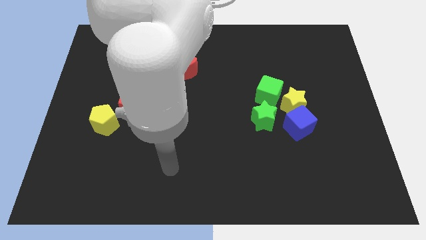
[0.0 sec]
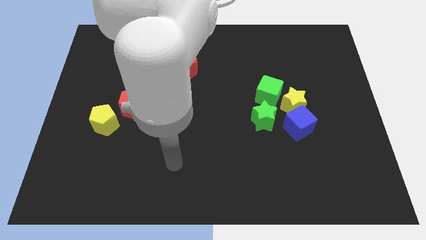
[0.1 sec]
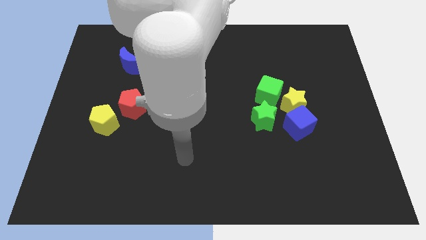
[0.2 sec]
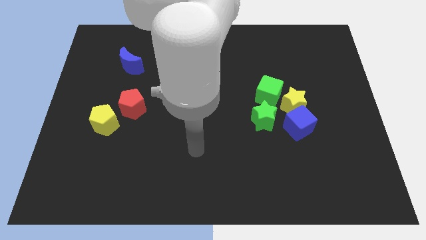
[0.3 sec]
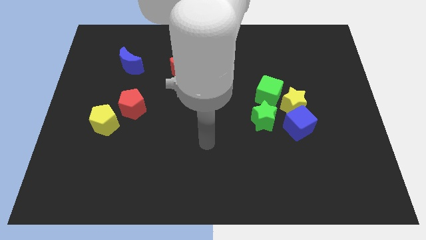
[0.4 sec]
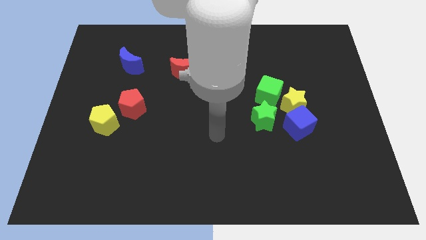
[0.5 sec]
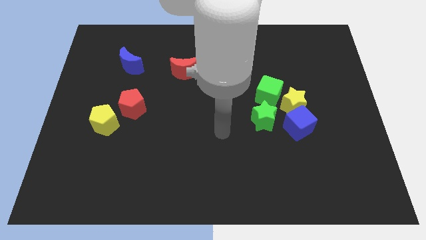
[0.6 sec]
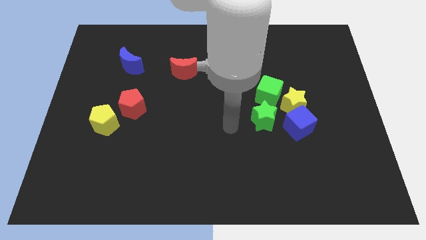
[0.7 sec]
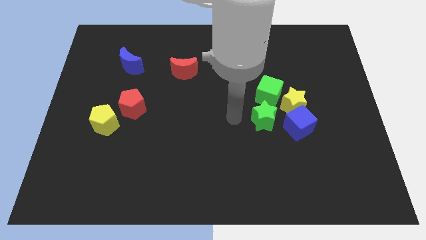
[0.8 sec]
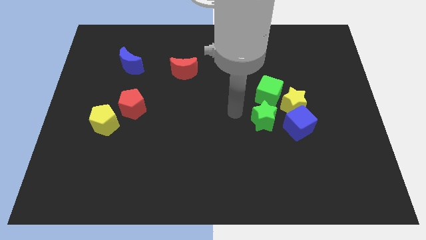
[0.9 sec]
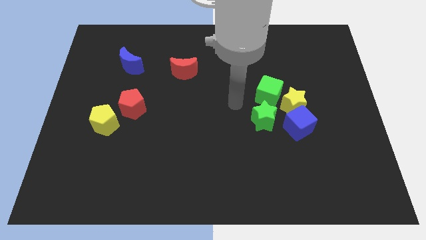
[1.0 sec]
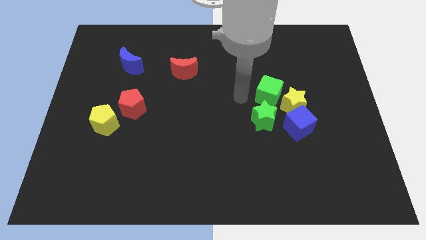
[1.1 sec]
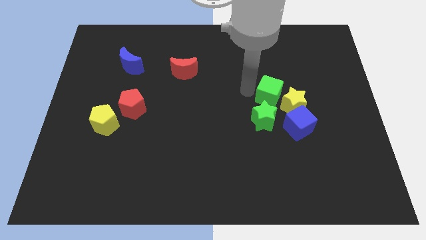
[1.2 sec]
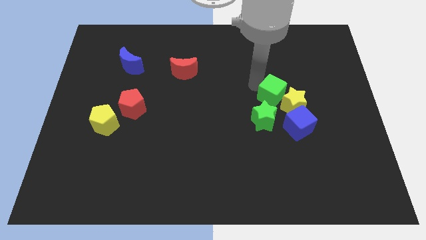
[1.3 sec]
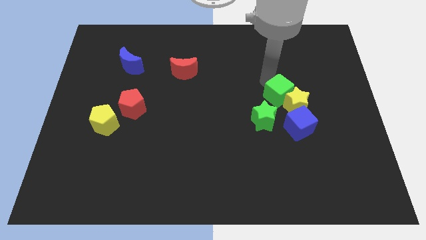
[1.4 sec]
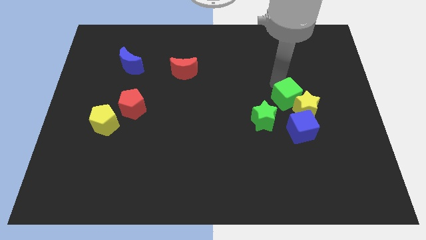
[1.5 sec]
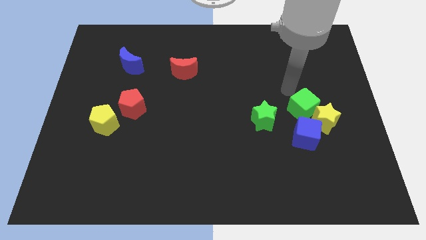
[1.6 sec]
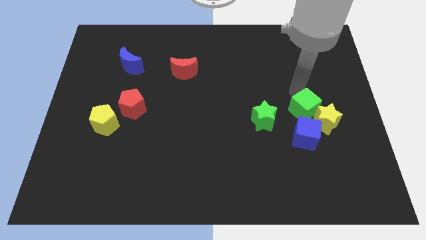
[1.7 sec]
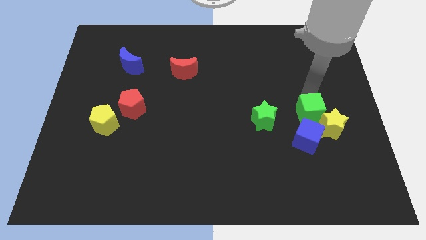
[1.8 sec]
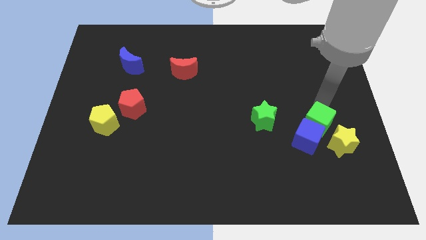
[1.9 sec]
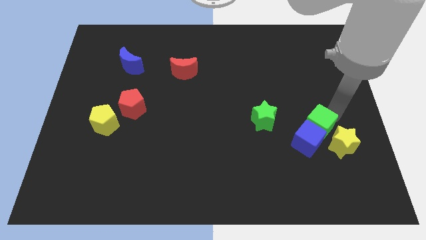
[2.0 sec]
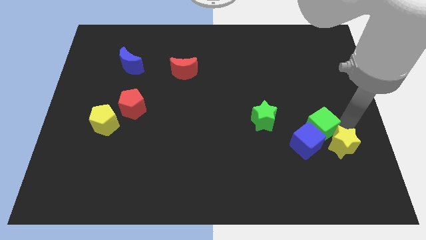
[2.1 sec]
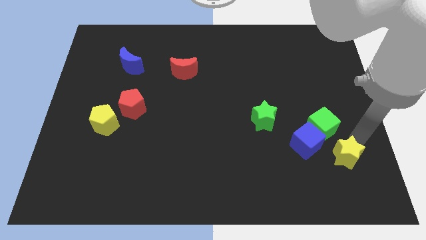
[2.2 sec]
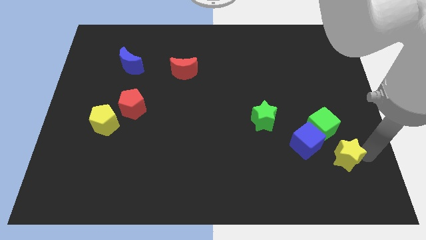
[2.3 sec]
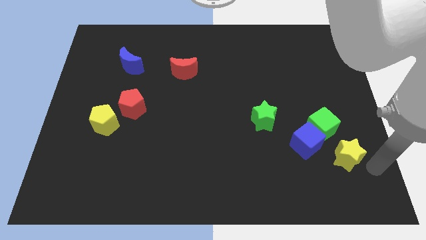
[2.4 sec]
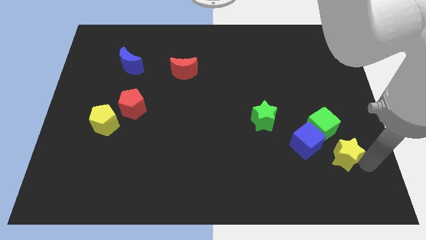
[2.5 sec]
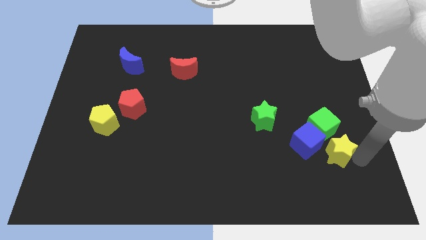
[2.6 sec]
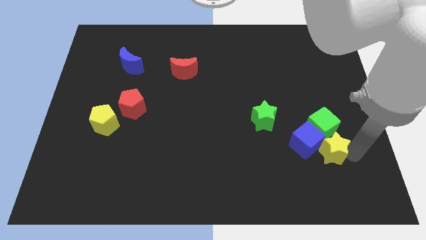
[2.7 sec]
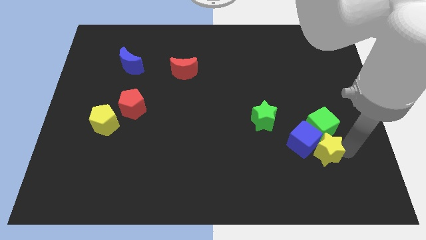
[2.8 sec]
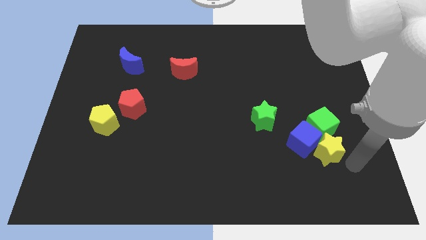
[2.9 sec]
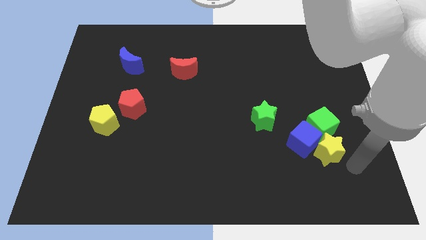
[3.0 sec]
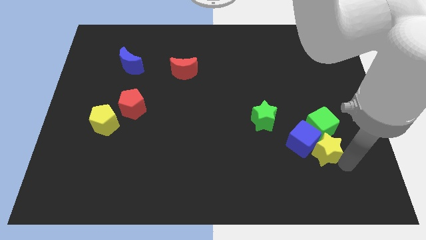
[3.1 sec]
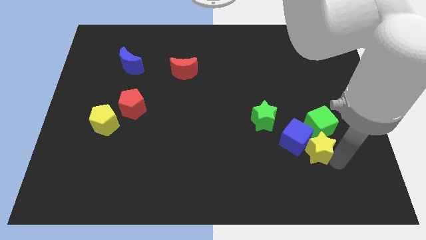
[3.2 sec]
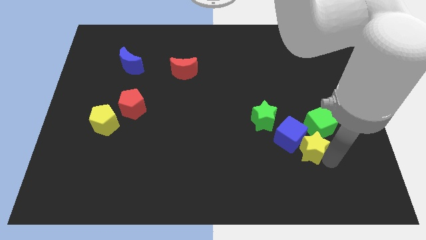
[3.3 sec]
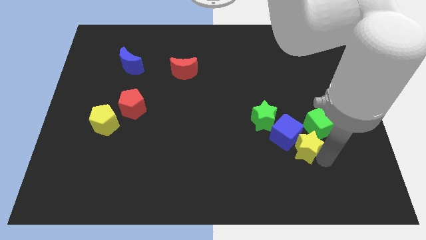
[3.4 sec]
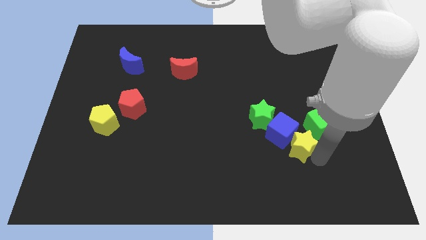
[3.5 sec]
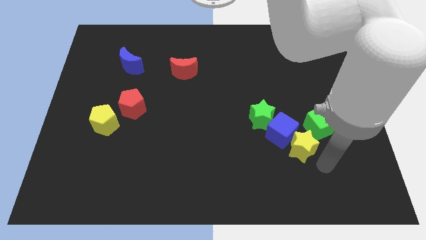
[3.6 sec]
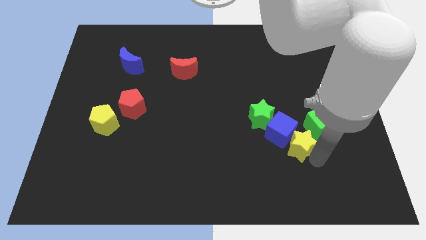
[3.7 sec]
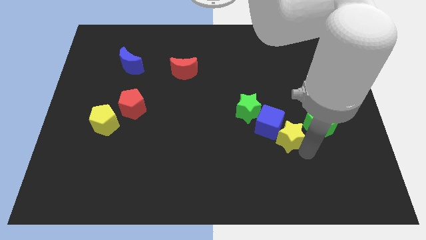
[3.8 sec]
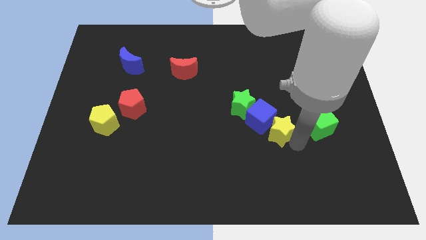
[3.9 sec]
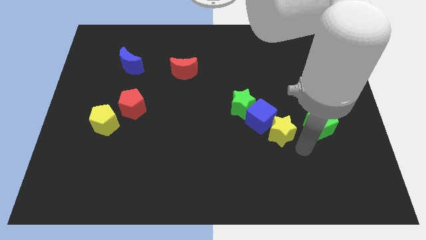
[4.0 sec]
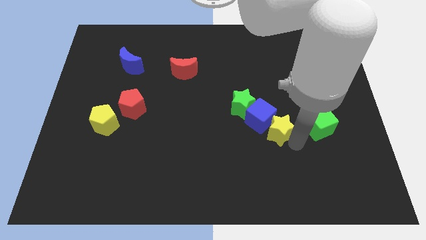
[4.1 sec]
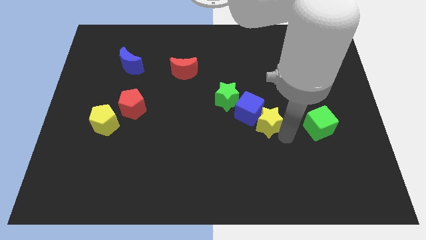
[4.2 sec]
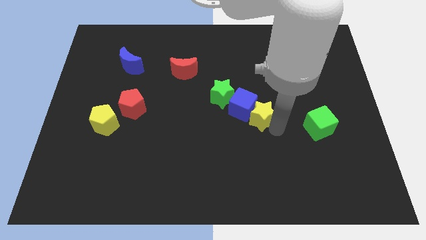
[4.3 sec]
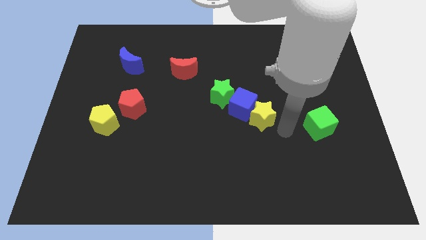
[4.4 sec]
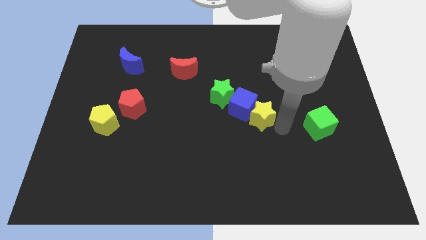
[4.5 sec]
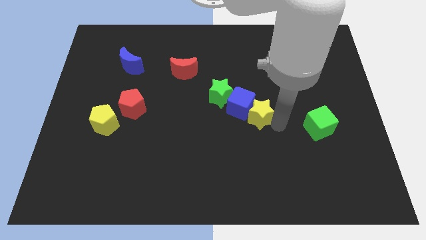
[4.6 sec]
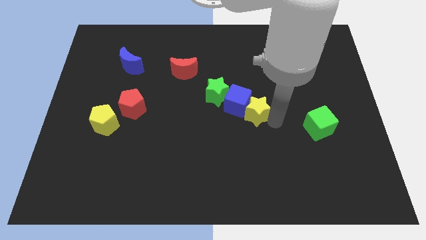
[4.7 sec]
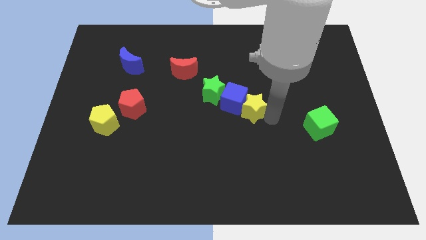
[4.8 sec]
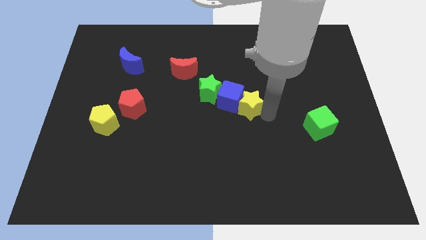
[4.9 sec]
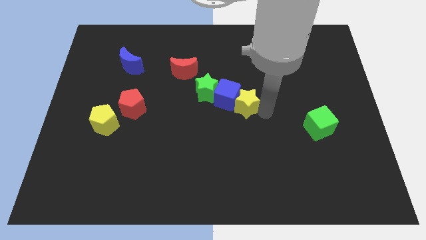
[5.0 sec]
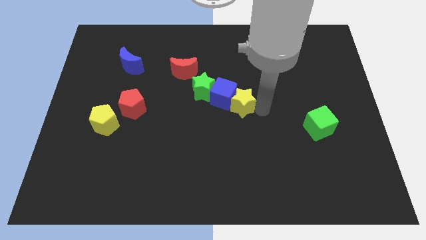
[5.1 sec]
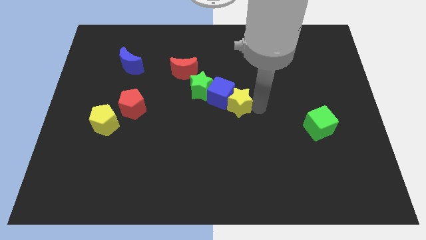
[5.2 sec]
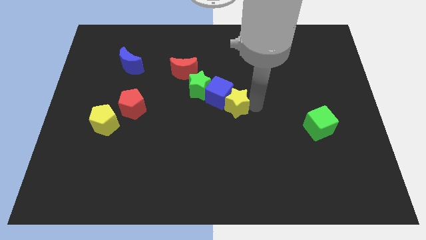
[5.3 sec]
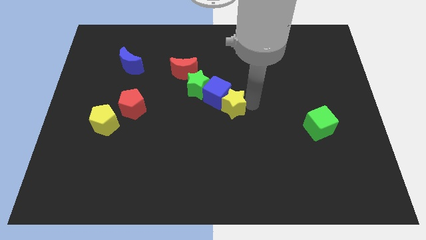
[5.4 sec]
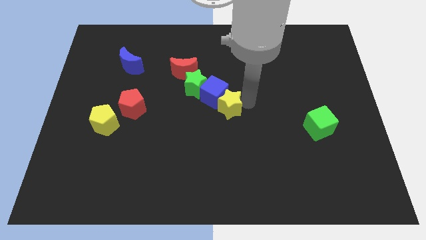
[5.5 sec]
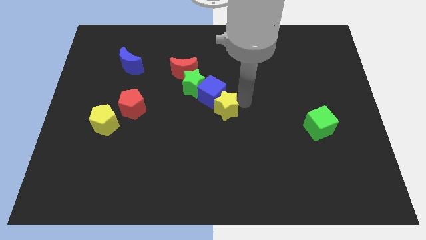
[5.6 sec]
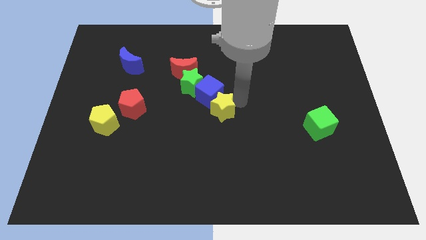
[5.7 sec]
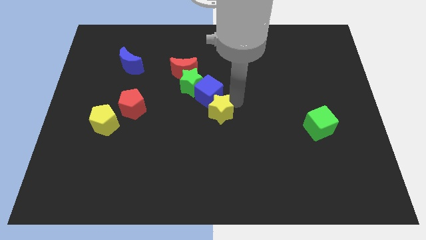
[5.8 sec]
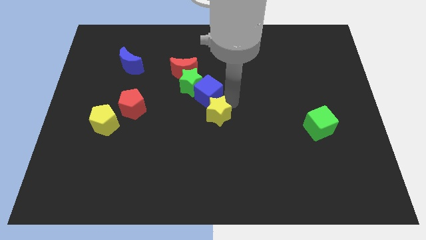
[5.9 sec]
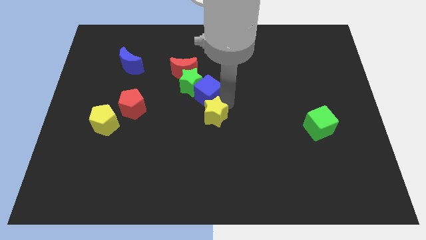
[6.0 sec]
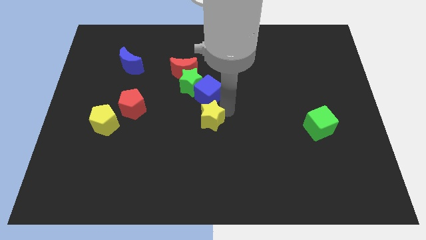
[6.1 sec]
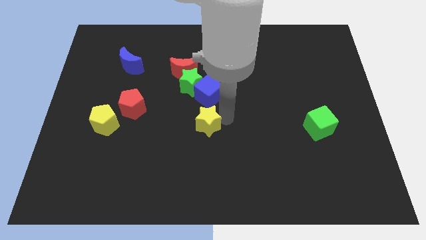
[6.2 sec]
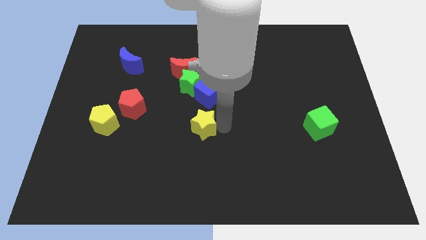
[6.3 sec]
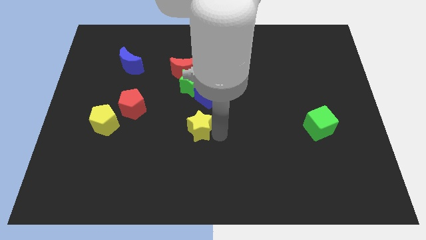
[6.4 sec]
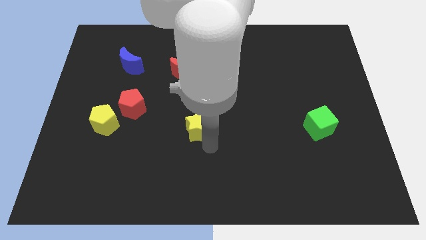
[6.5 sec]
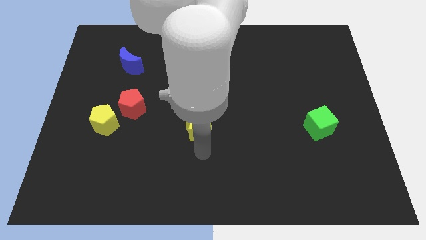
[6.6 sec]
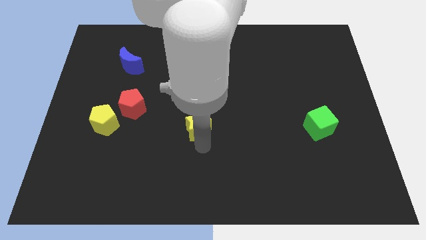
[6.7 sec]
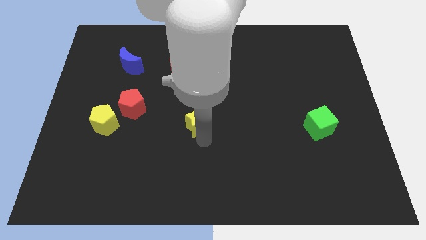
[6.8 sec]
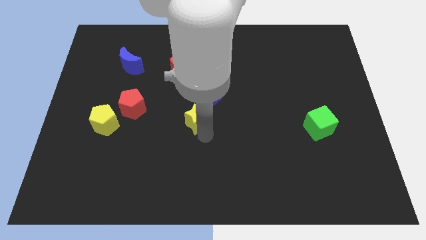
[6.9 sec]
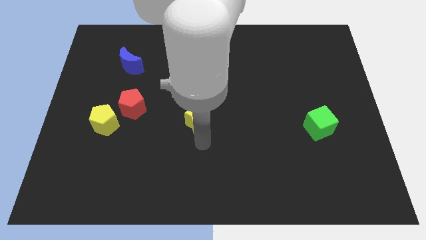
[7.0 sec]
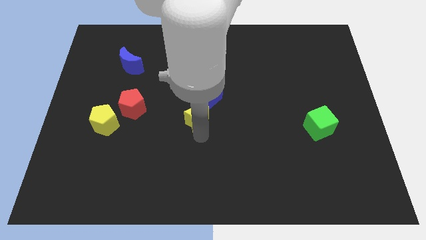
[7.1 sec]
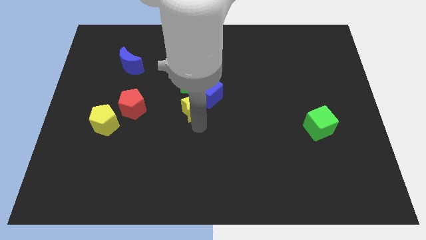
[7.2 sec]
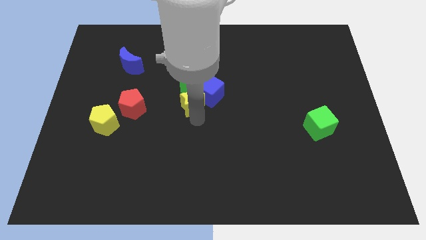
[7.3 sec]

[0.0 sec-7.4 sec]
push the yellow star to the green star
